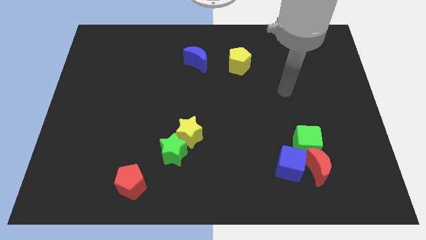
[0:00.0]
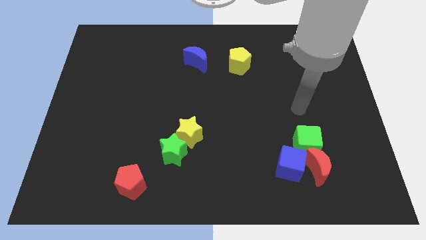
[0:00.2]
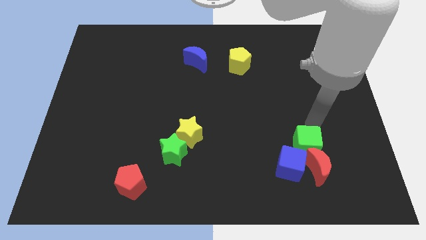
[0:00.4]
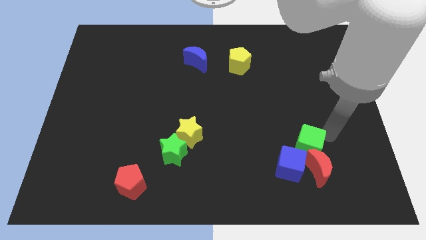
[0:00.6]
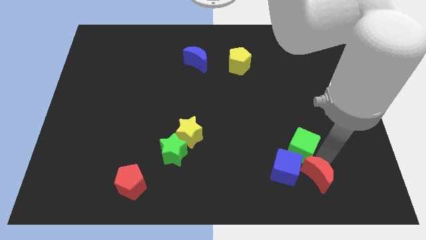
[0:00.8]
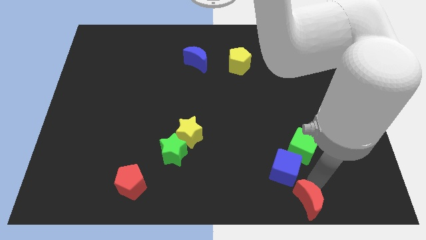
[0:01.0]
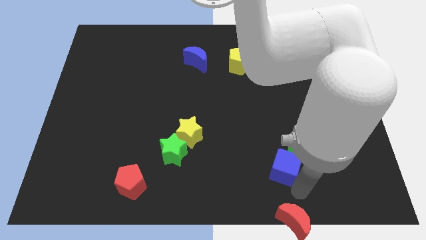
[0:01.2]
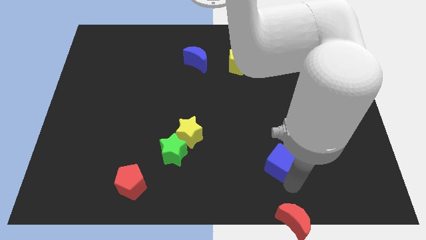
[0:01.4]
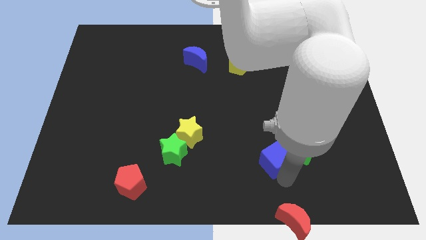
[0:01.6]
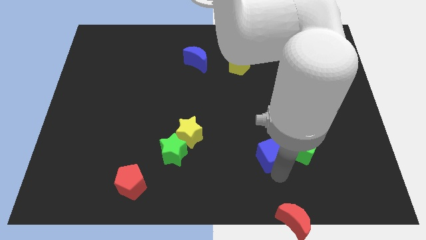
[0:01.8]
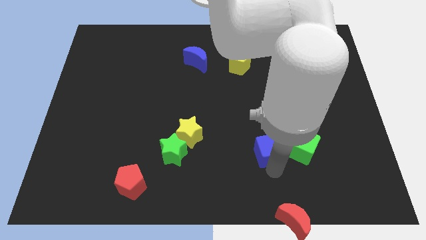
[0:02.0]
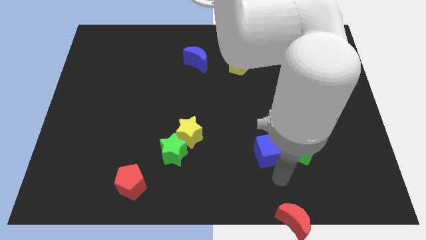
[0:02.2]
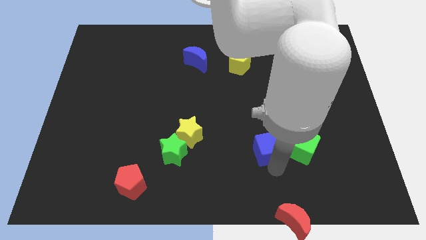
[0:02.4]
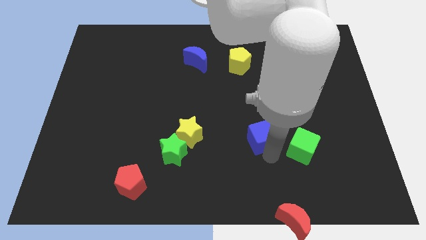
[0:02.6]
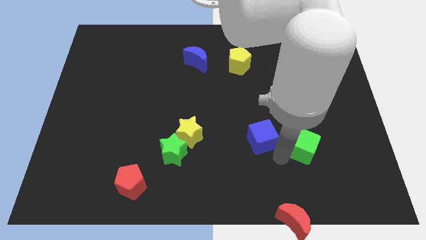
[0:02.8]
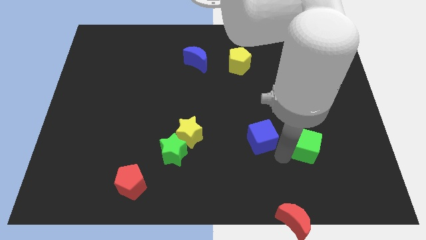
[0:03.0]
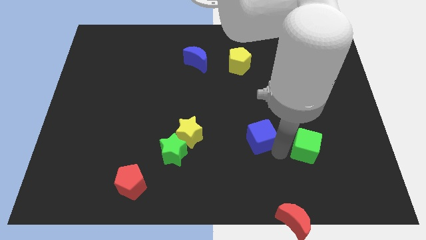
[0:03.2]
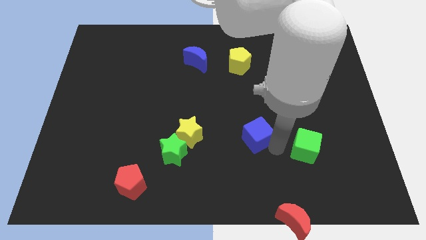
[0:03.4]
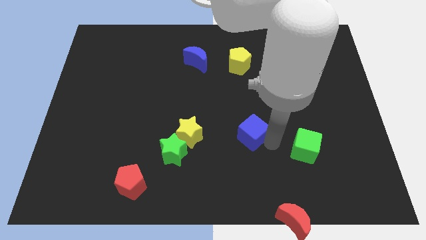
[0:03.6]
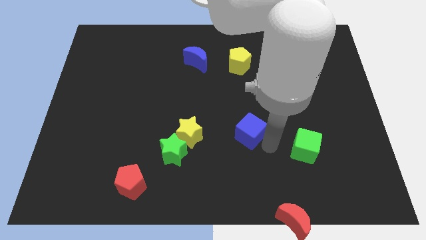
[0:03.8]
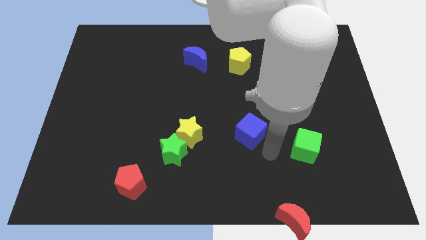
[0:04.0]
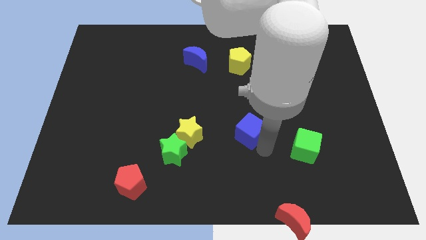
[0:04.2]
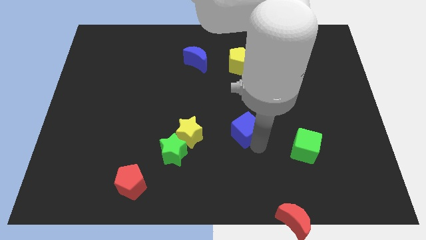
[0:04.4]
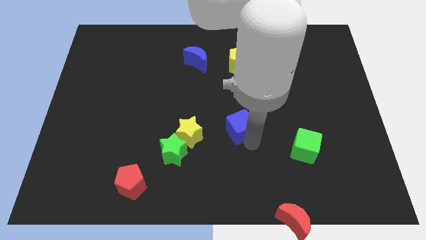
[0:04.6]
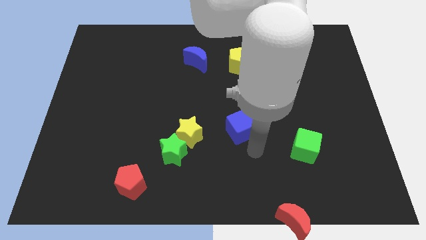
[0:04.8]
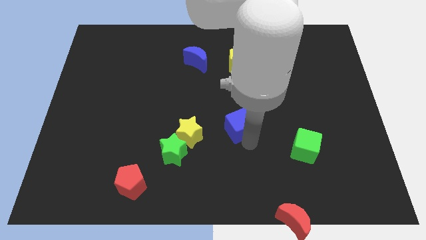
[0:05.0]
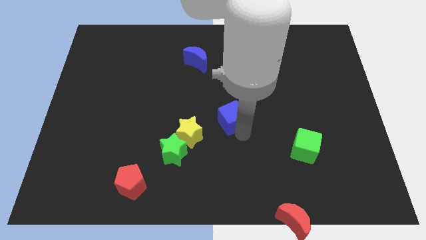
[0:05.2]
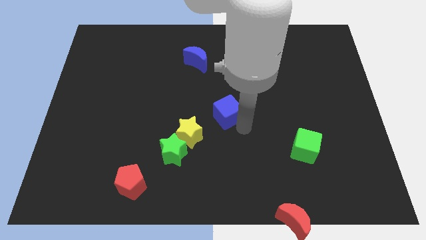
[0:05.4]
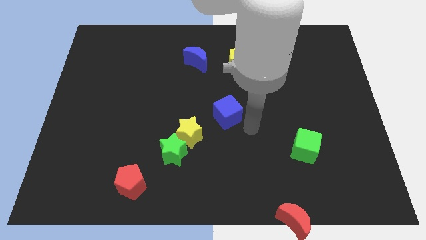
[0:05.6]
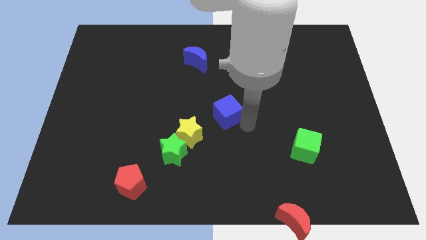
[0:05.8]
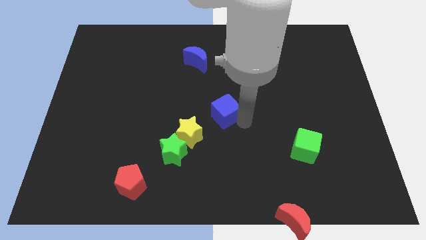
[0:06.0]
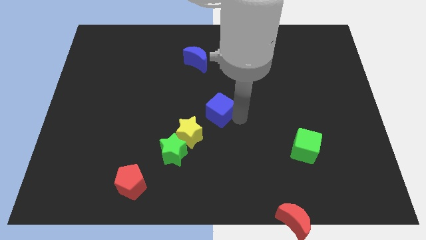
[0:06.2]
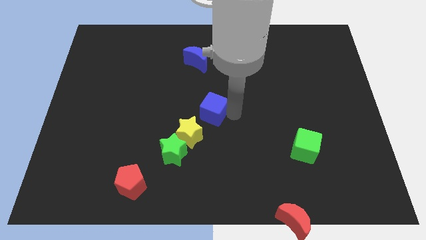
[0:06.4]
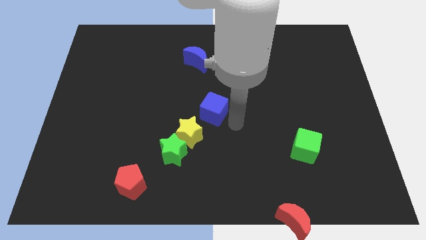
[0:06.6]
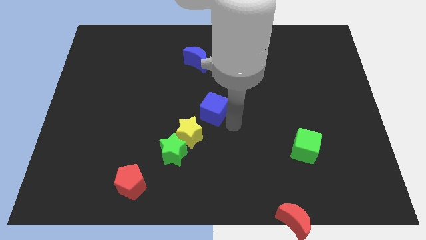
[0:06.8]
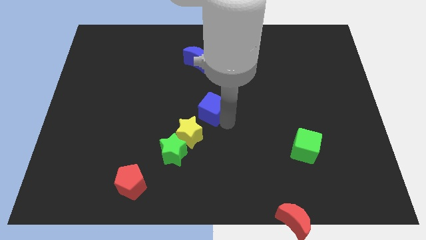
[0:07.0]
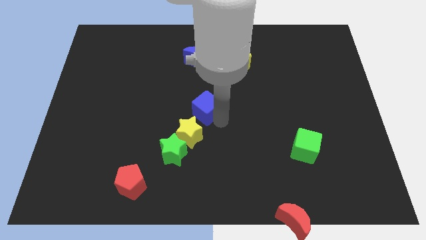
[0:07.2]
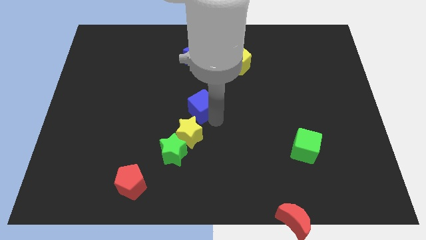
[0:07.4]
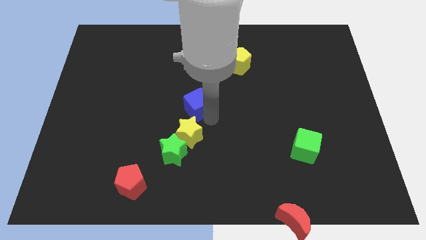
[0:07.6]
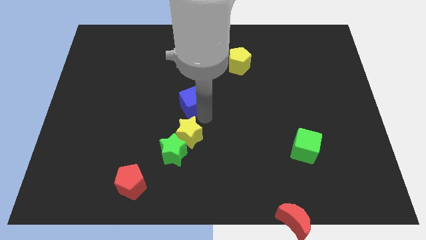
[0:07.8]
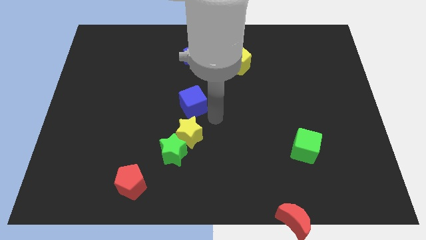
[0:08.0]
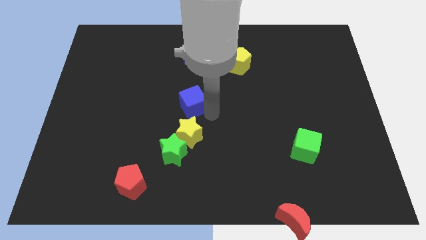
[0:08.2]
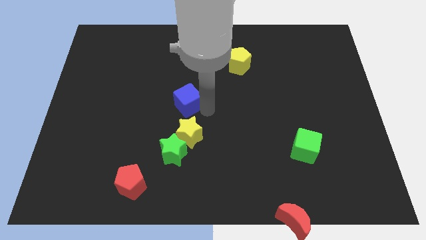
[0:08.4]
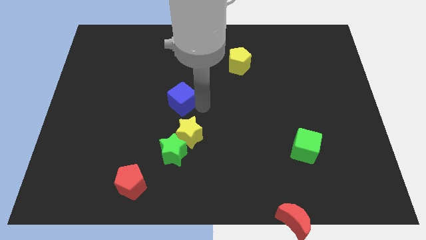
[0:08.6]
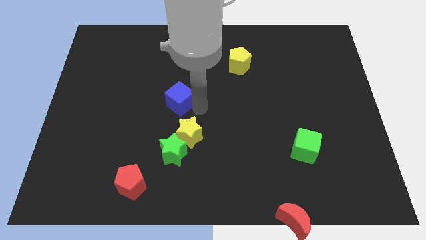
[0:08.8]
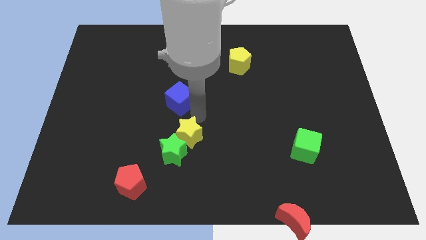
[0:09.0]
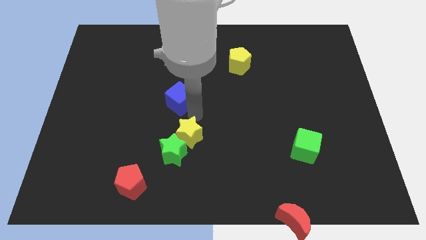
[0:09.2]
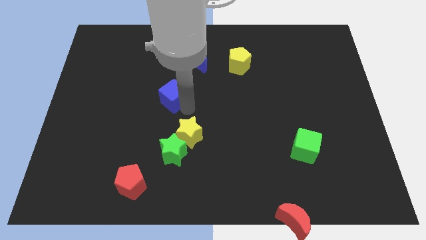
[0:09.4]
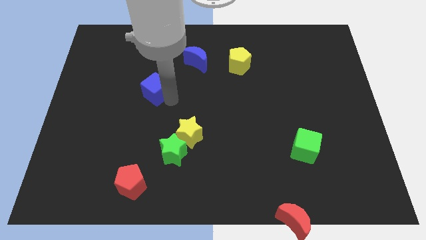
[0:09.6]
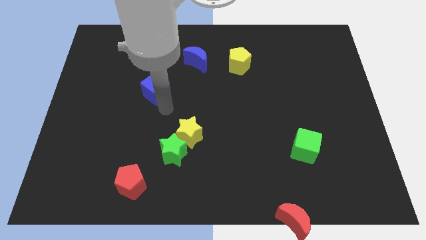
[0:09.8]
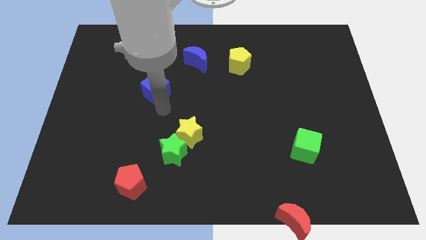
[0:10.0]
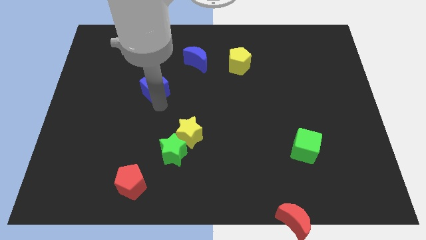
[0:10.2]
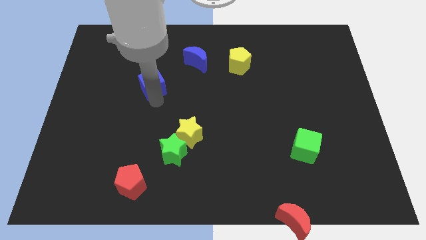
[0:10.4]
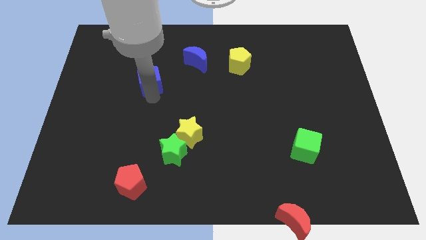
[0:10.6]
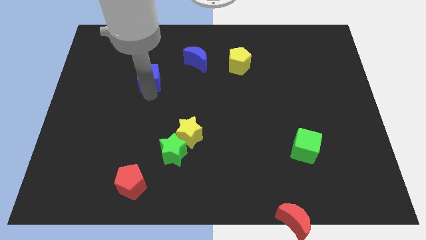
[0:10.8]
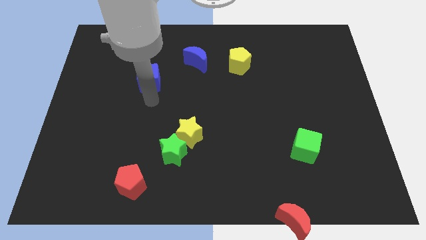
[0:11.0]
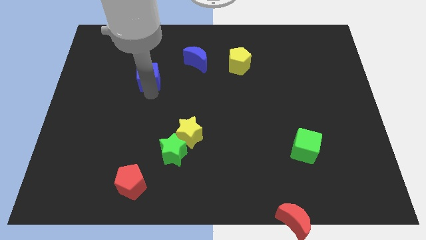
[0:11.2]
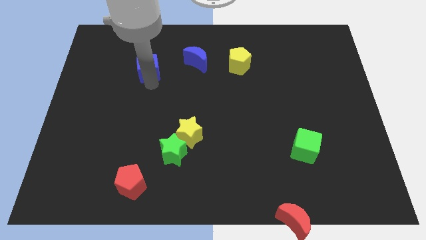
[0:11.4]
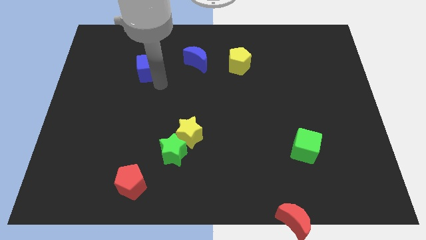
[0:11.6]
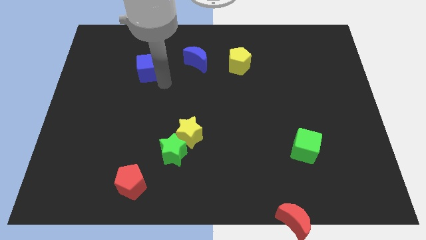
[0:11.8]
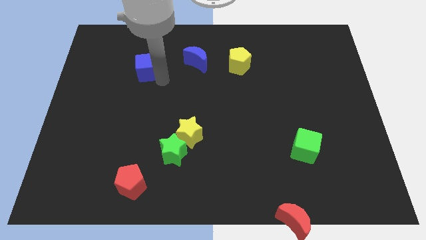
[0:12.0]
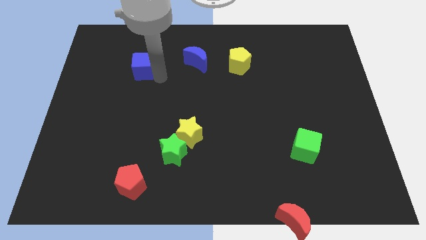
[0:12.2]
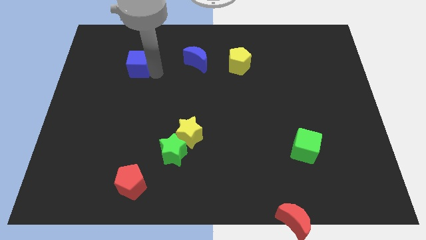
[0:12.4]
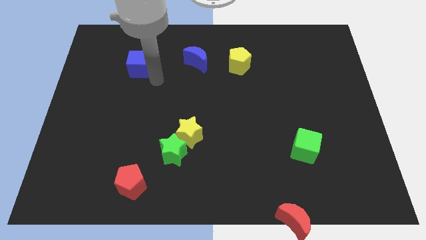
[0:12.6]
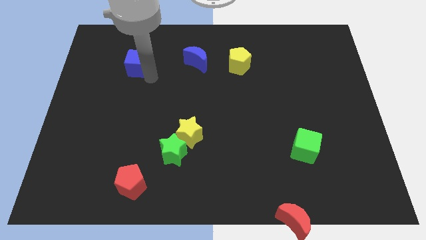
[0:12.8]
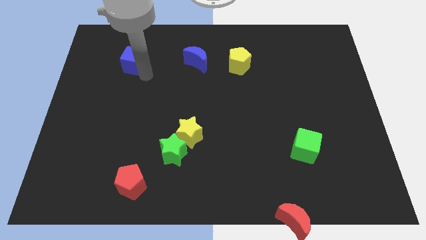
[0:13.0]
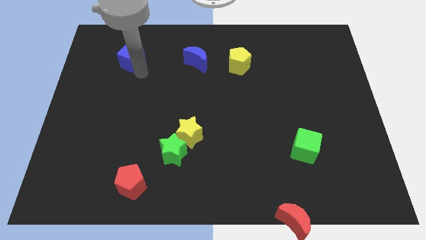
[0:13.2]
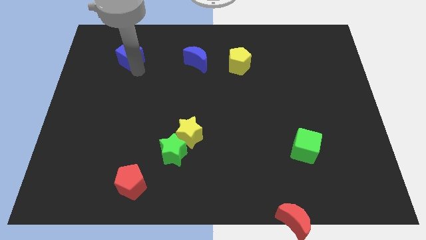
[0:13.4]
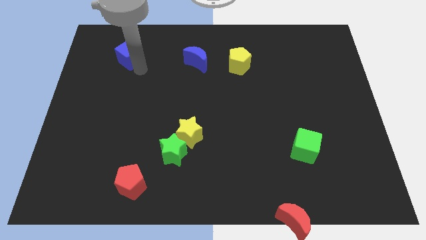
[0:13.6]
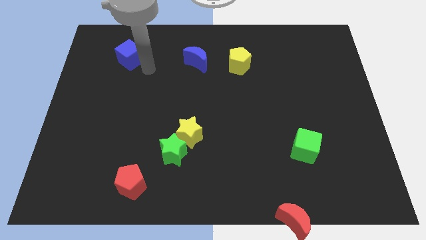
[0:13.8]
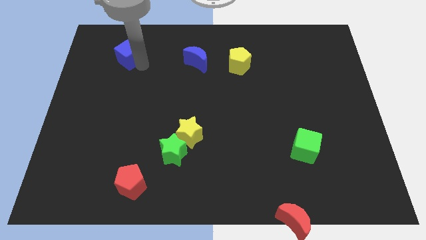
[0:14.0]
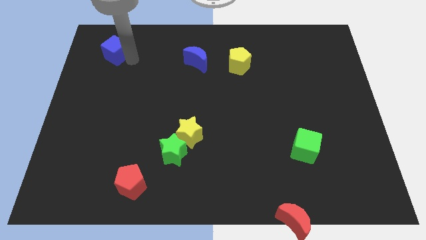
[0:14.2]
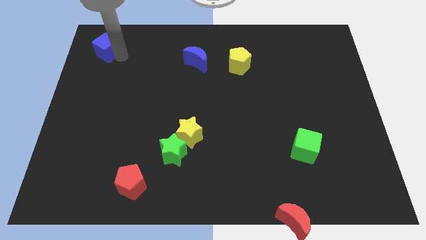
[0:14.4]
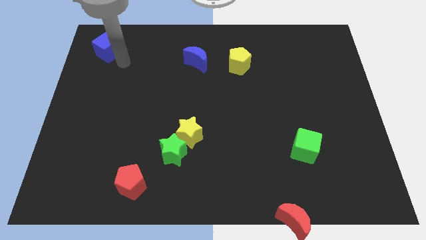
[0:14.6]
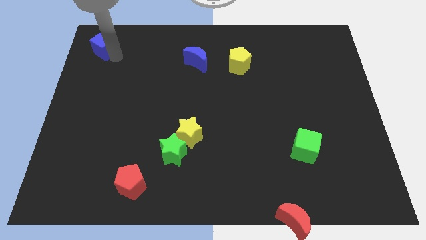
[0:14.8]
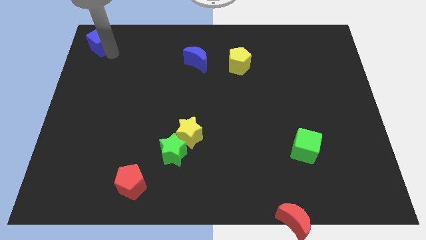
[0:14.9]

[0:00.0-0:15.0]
slide the blue cube to the upper left corner
